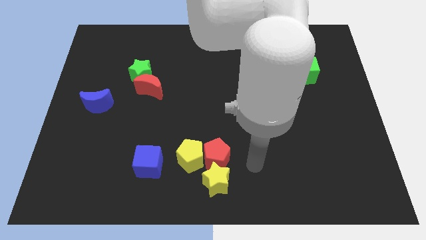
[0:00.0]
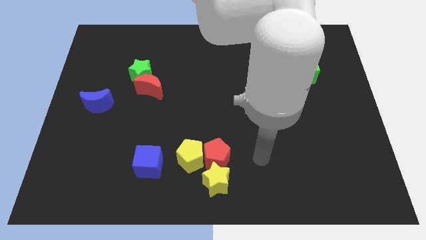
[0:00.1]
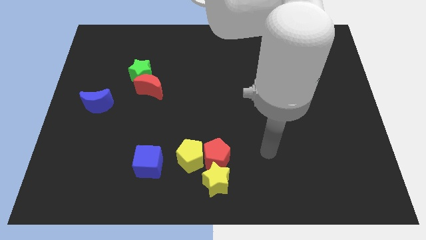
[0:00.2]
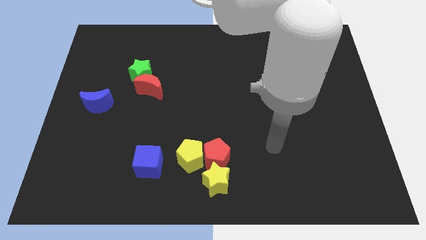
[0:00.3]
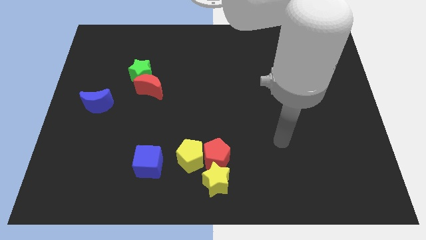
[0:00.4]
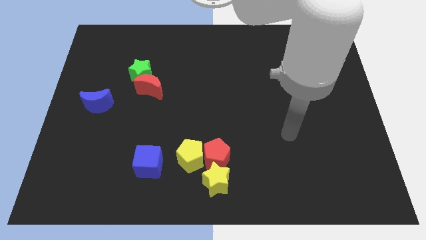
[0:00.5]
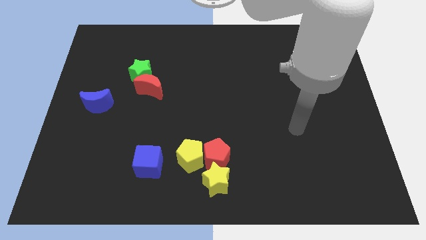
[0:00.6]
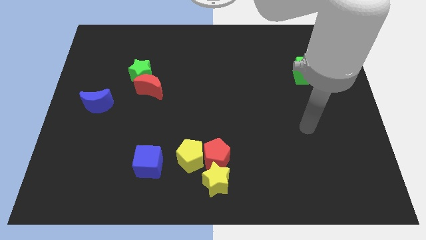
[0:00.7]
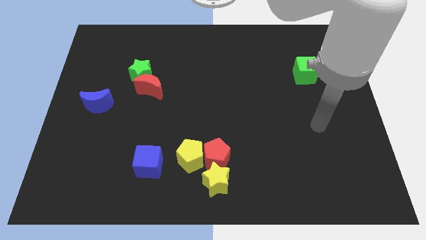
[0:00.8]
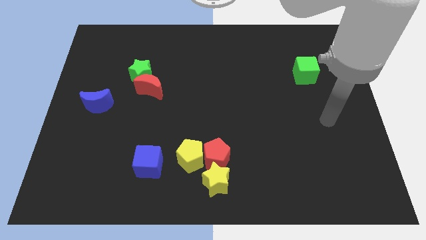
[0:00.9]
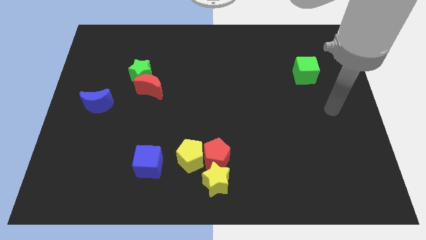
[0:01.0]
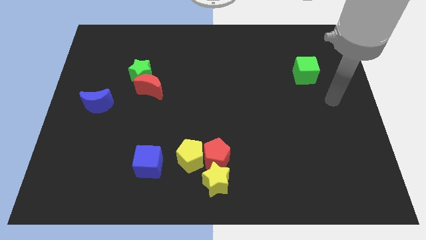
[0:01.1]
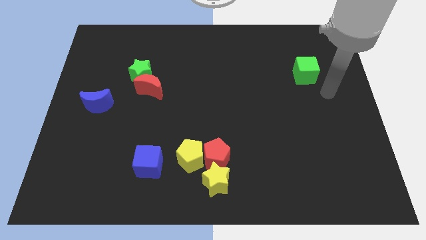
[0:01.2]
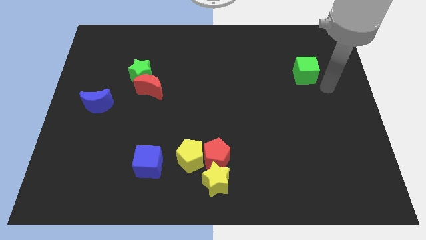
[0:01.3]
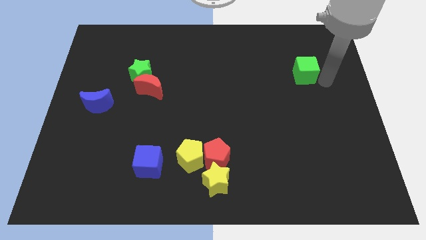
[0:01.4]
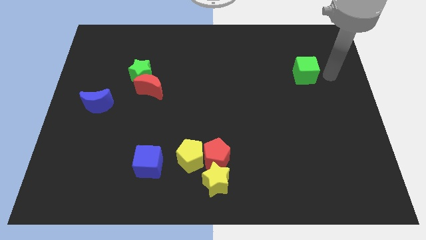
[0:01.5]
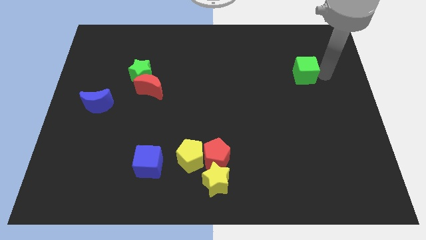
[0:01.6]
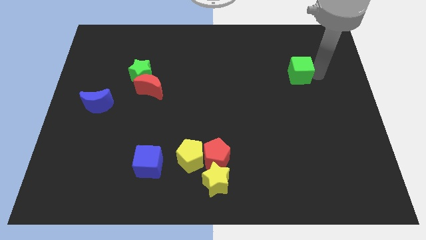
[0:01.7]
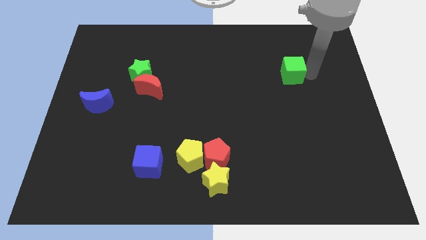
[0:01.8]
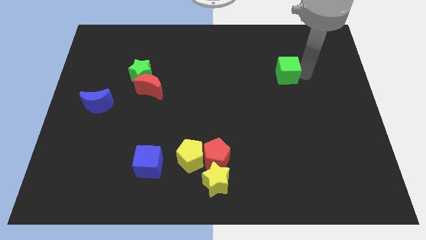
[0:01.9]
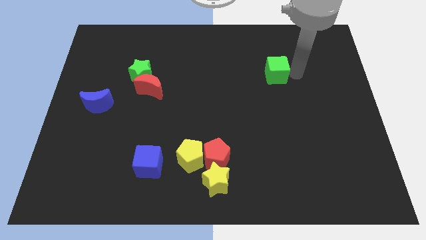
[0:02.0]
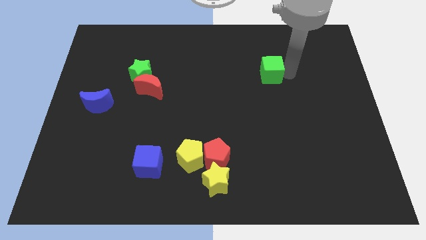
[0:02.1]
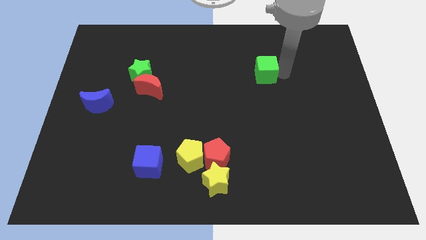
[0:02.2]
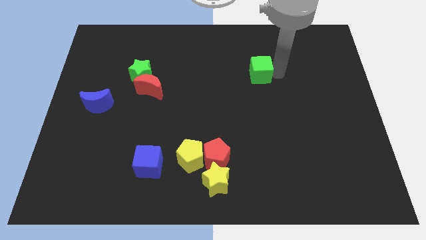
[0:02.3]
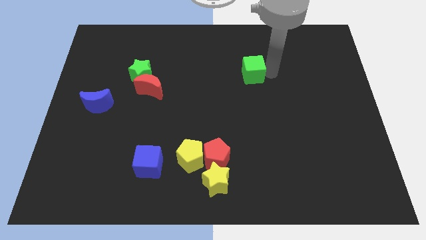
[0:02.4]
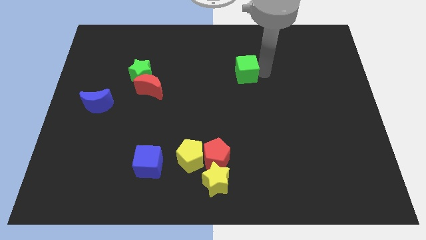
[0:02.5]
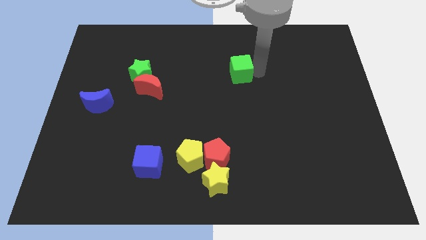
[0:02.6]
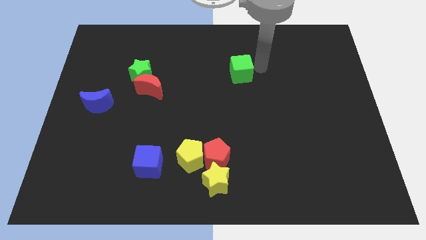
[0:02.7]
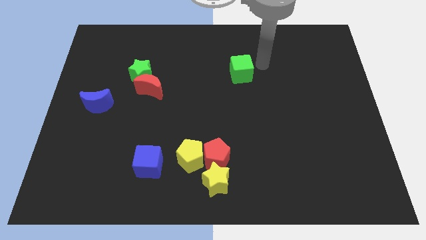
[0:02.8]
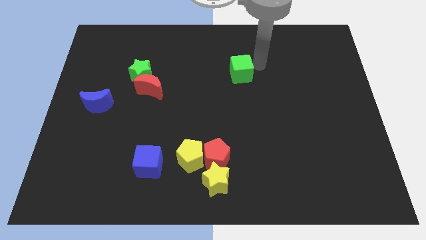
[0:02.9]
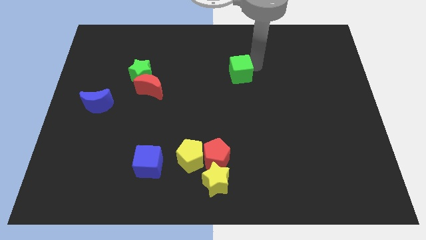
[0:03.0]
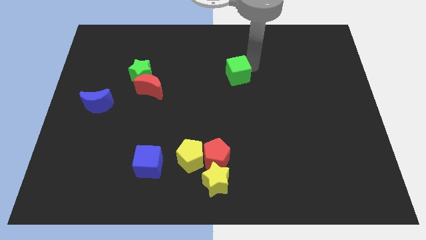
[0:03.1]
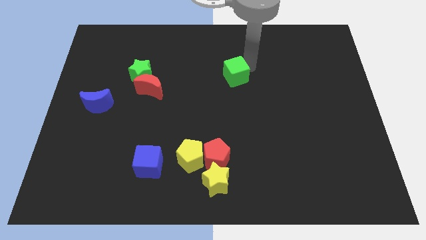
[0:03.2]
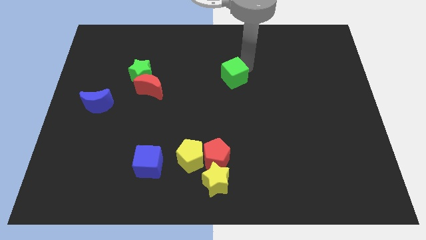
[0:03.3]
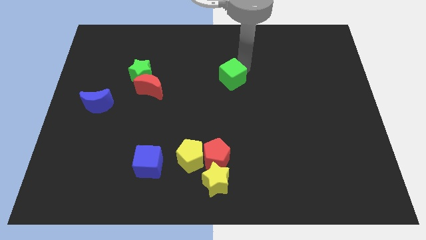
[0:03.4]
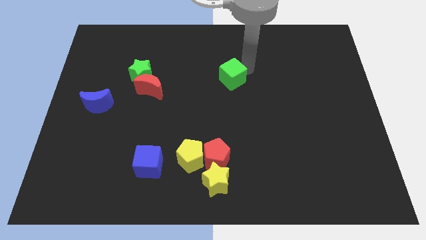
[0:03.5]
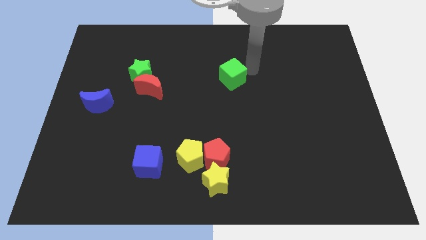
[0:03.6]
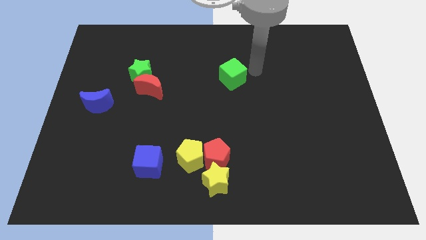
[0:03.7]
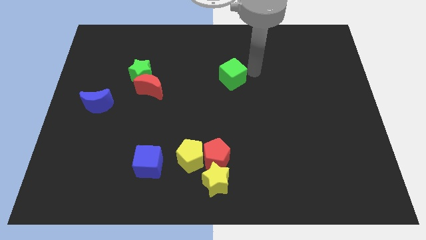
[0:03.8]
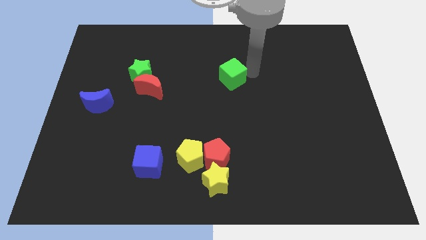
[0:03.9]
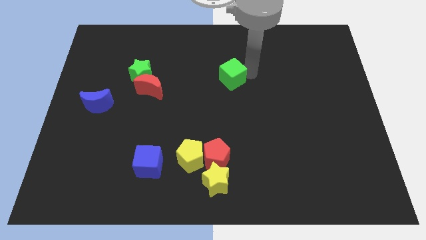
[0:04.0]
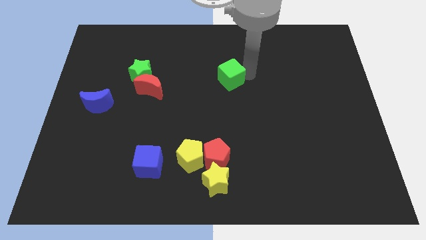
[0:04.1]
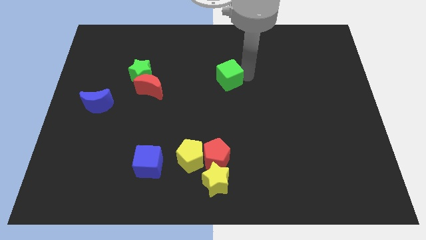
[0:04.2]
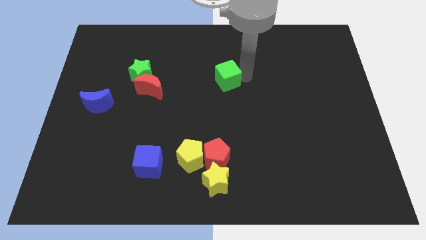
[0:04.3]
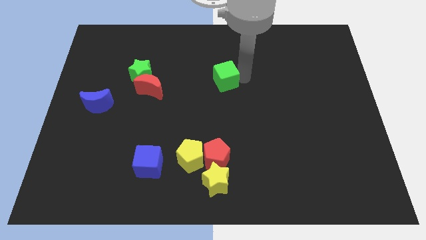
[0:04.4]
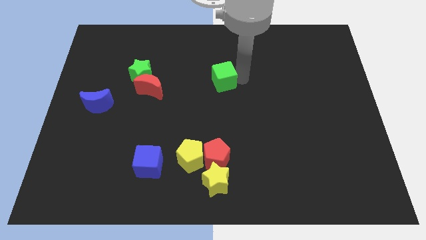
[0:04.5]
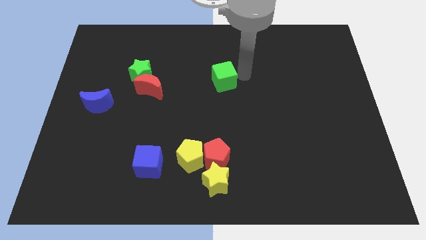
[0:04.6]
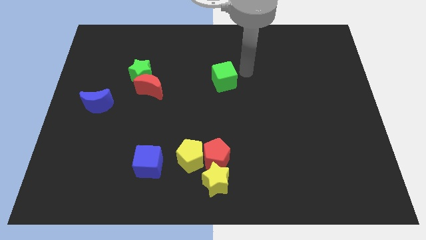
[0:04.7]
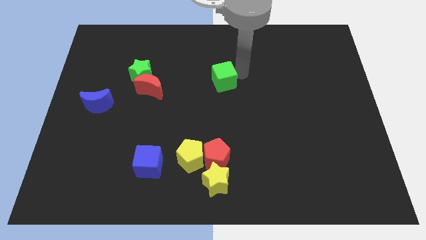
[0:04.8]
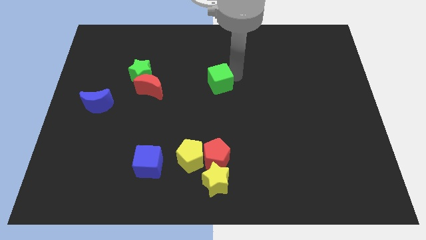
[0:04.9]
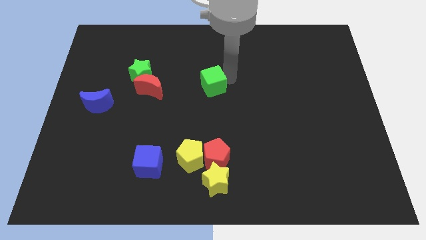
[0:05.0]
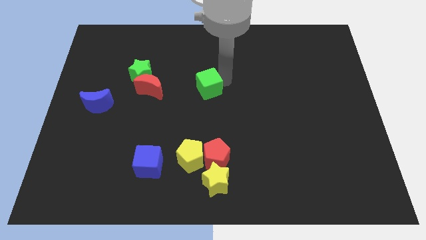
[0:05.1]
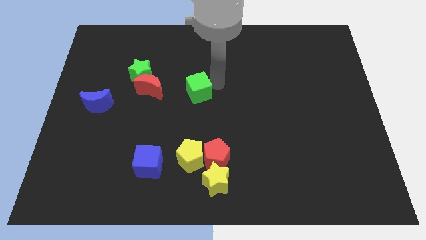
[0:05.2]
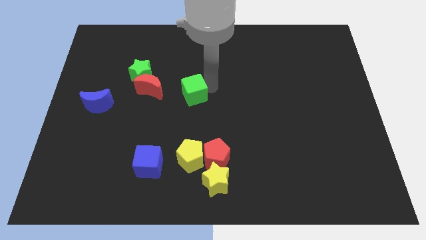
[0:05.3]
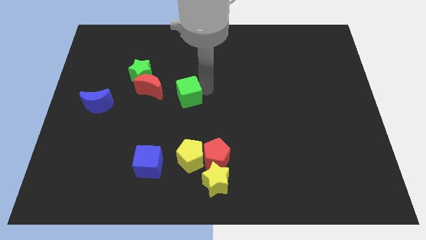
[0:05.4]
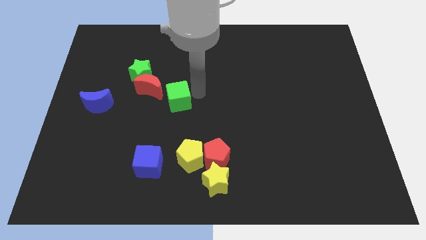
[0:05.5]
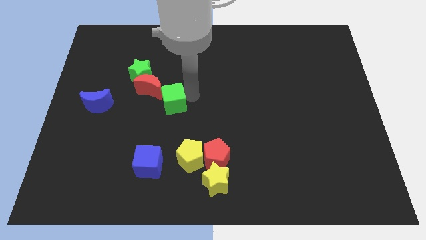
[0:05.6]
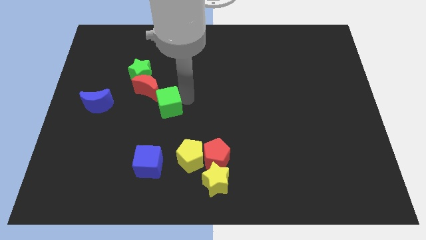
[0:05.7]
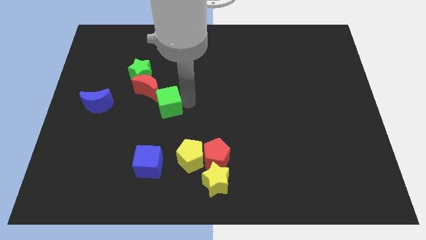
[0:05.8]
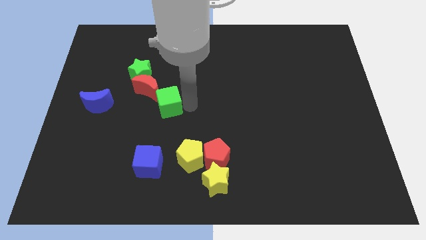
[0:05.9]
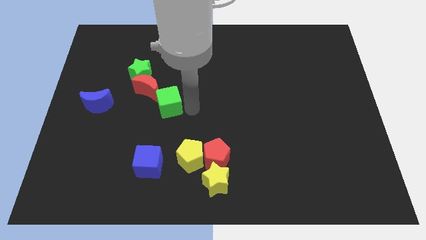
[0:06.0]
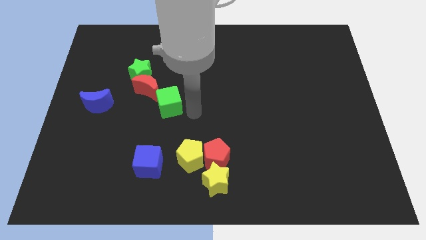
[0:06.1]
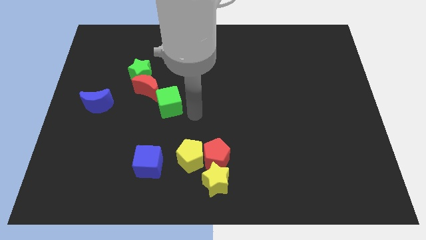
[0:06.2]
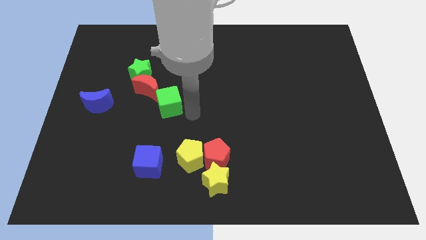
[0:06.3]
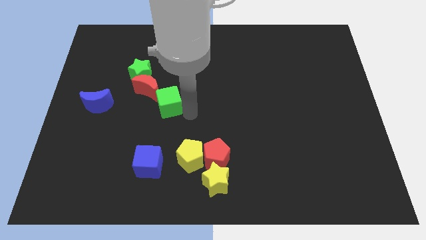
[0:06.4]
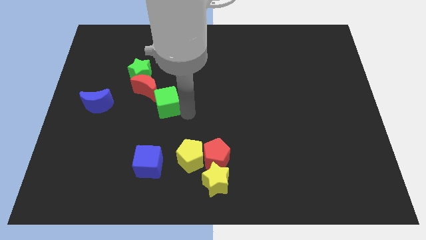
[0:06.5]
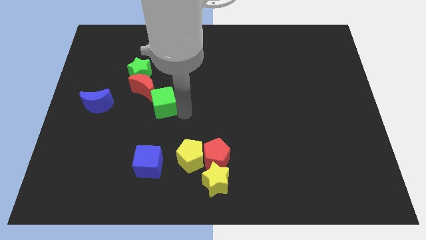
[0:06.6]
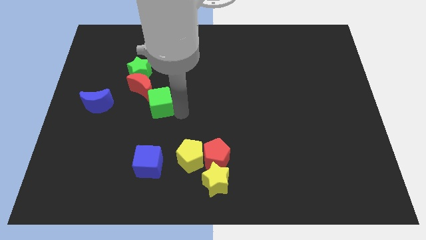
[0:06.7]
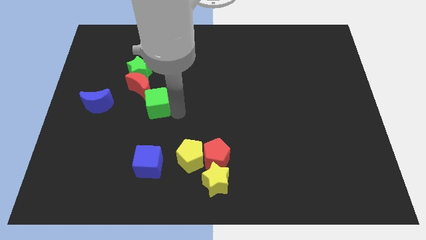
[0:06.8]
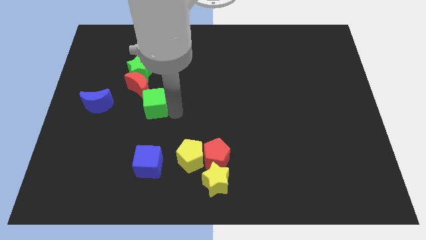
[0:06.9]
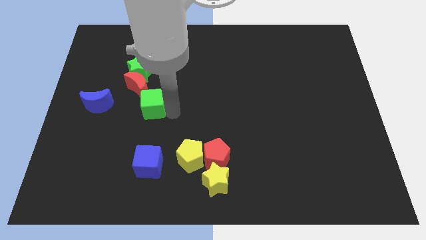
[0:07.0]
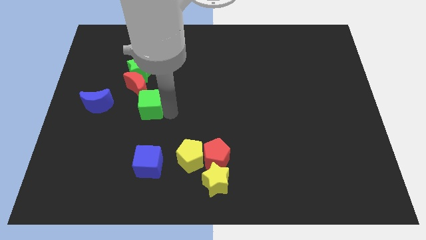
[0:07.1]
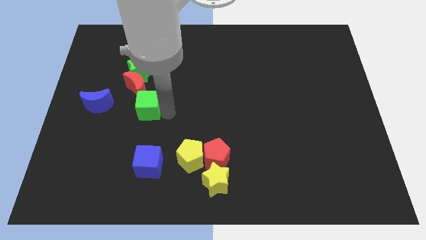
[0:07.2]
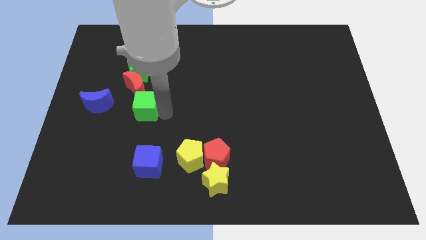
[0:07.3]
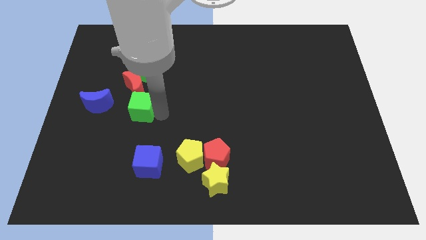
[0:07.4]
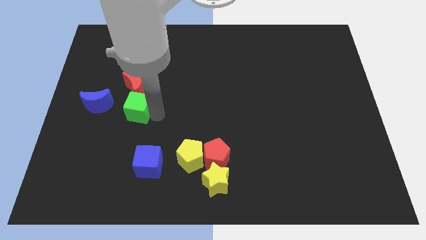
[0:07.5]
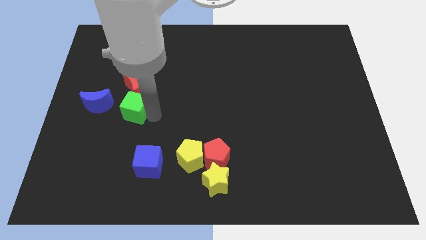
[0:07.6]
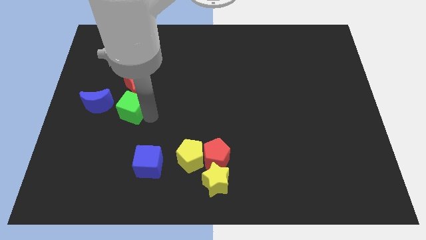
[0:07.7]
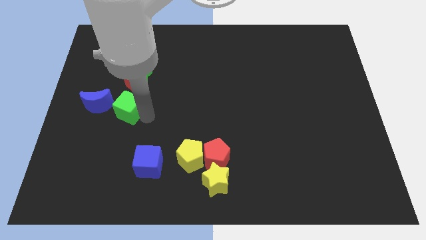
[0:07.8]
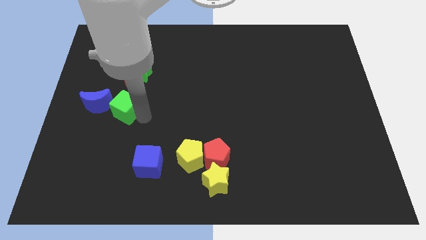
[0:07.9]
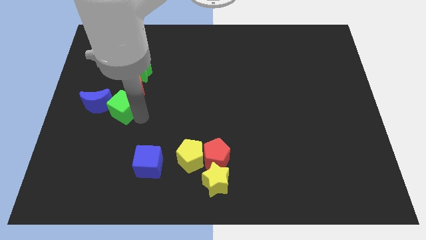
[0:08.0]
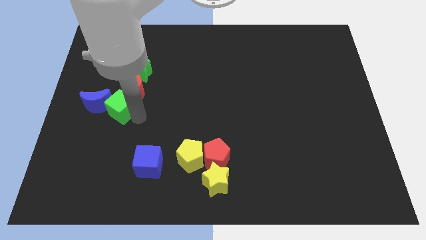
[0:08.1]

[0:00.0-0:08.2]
put the green cube next to the blue moon
